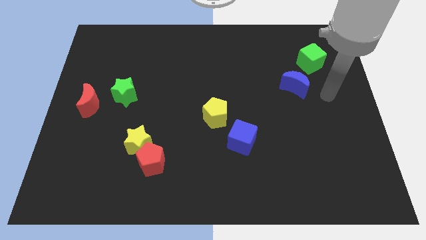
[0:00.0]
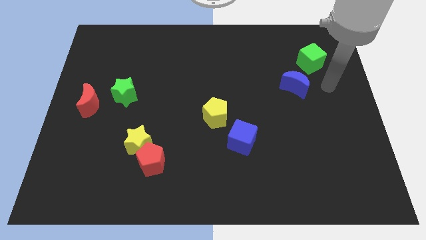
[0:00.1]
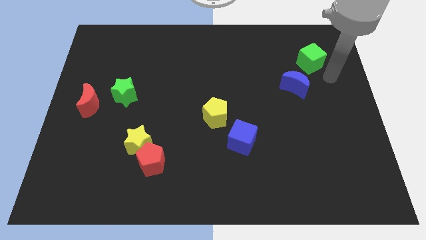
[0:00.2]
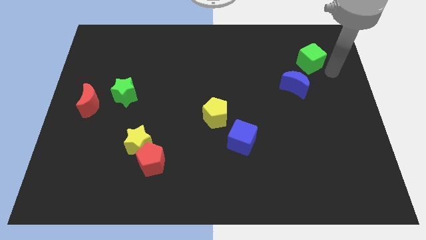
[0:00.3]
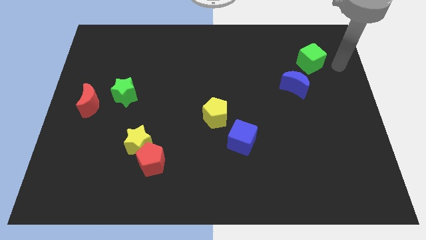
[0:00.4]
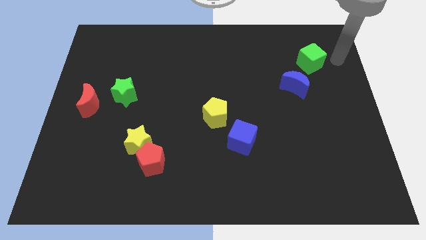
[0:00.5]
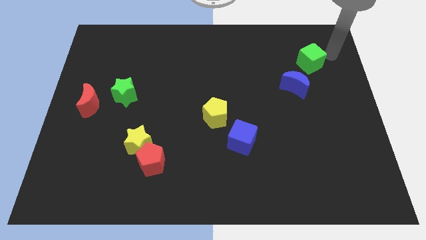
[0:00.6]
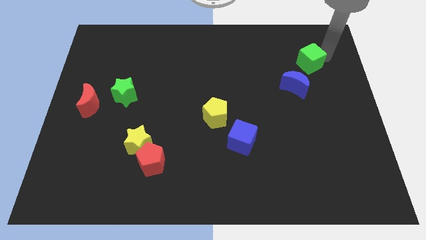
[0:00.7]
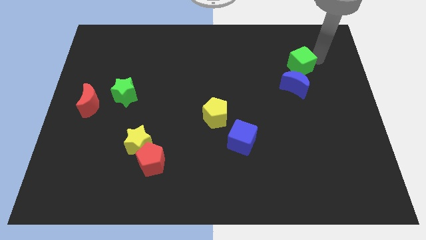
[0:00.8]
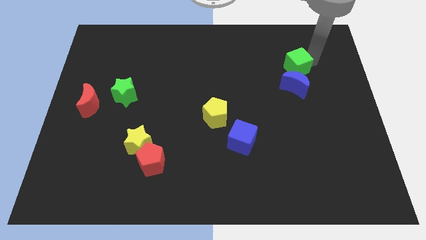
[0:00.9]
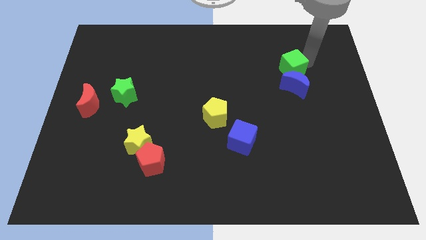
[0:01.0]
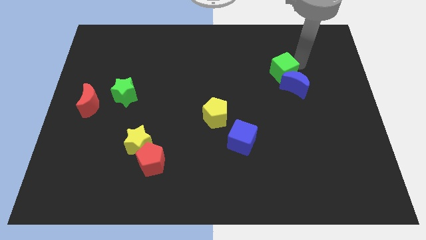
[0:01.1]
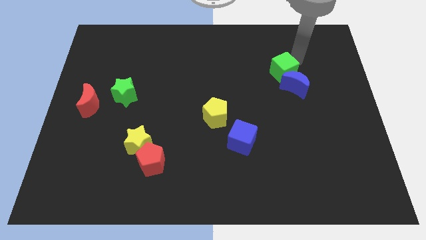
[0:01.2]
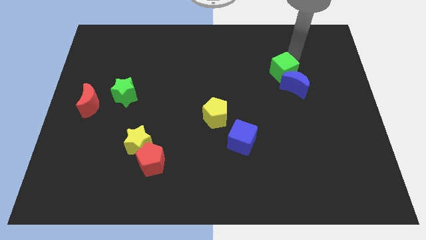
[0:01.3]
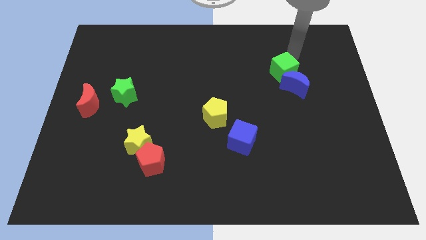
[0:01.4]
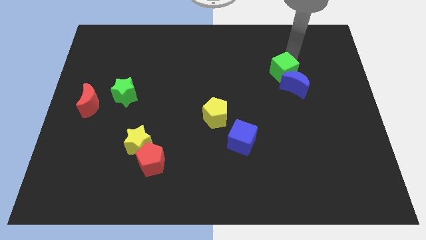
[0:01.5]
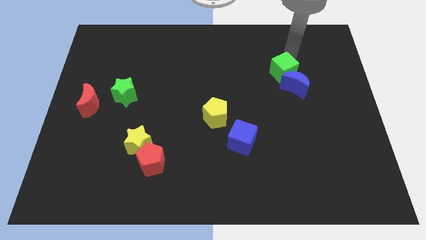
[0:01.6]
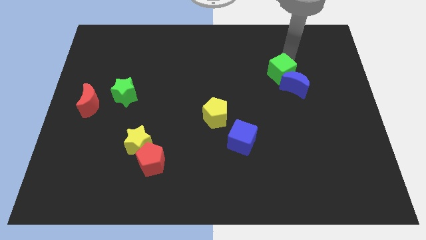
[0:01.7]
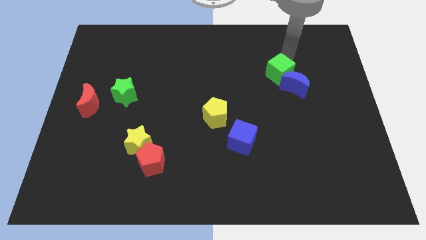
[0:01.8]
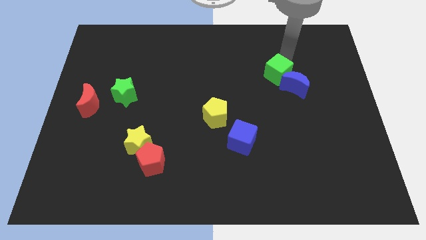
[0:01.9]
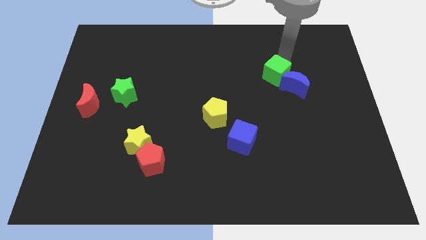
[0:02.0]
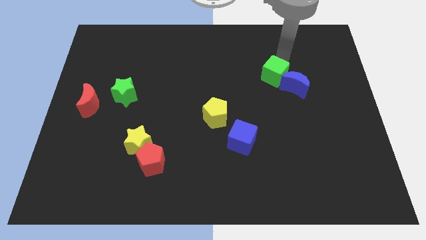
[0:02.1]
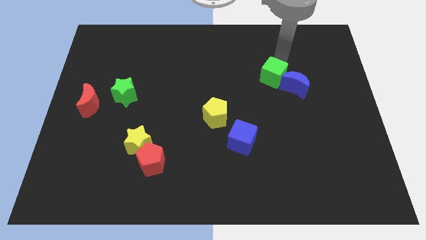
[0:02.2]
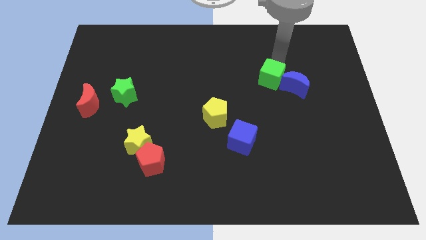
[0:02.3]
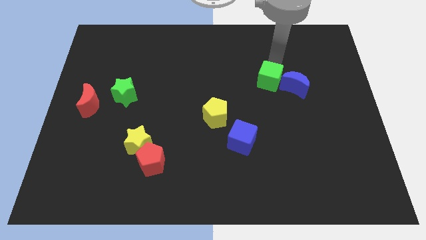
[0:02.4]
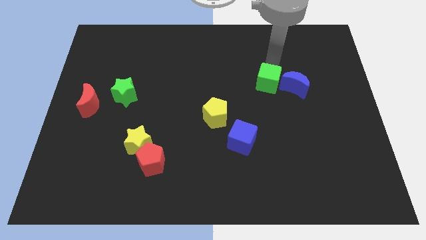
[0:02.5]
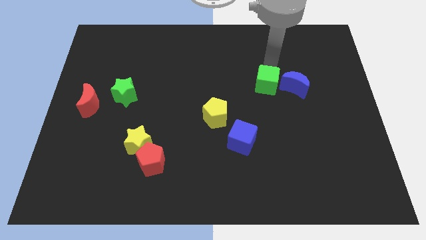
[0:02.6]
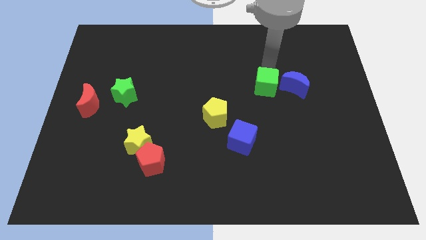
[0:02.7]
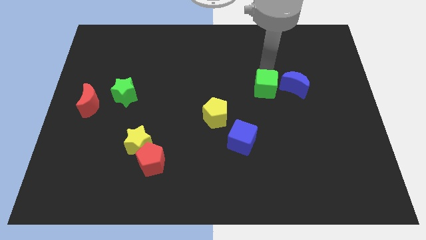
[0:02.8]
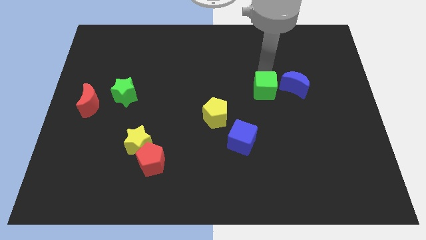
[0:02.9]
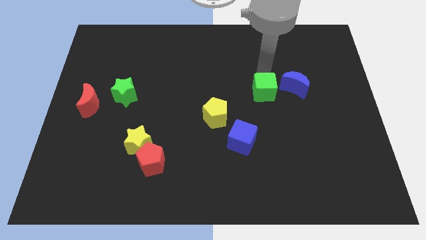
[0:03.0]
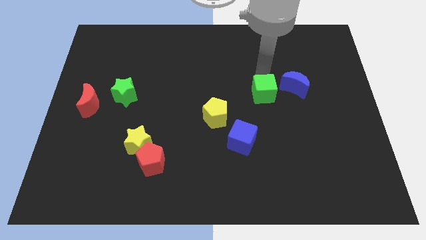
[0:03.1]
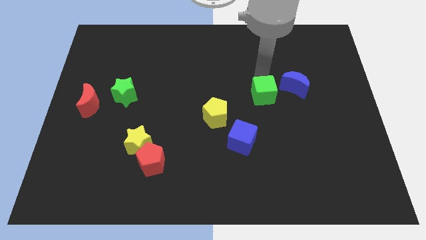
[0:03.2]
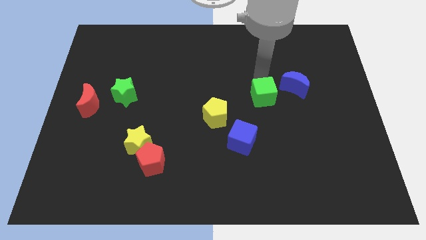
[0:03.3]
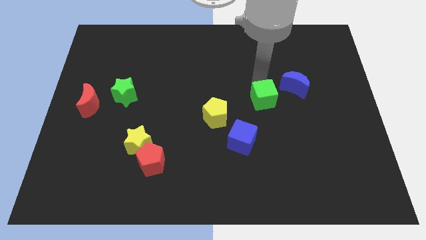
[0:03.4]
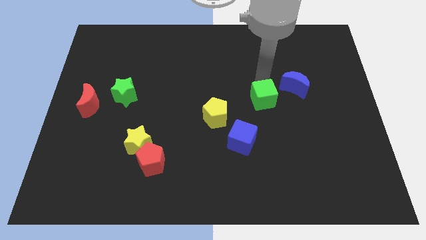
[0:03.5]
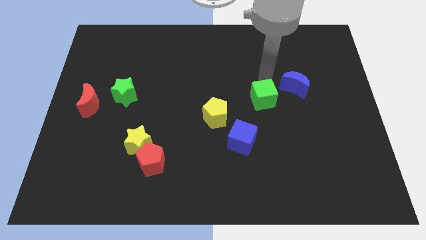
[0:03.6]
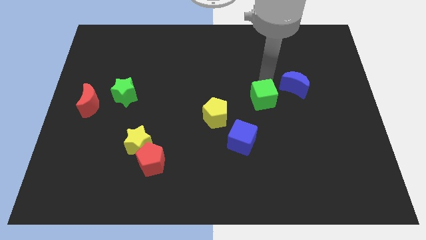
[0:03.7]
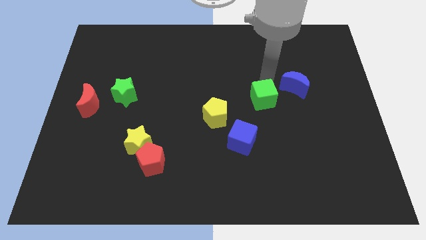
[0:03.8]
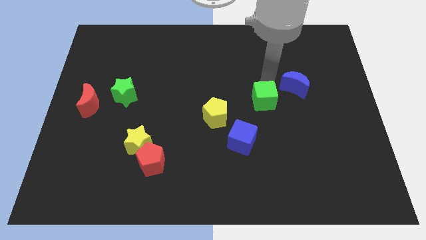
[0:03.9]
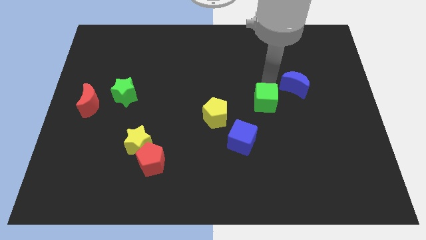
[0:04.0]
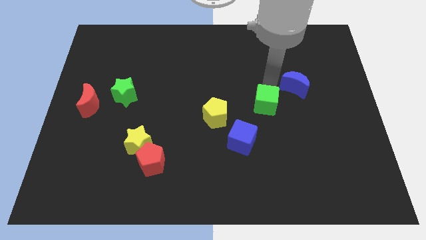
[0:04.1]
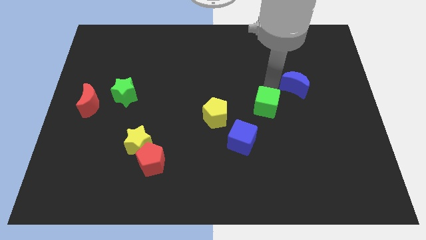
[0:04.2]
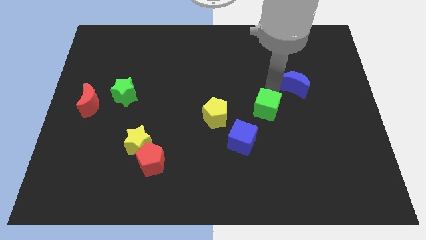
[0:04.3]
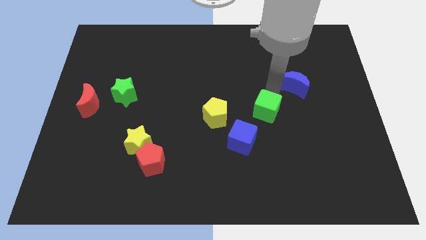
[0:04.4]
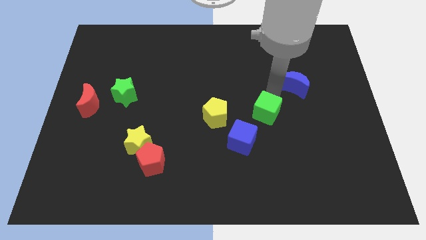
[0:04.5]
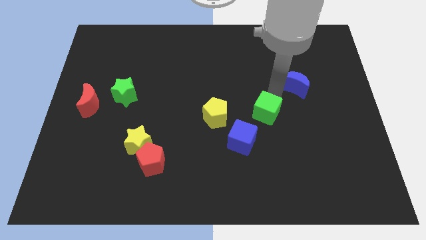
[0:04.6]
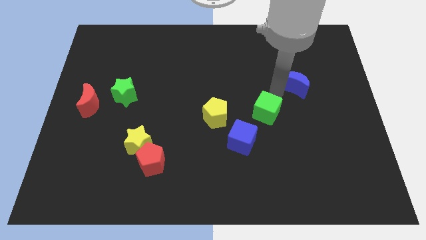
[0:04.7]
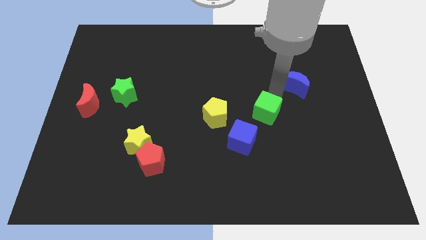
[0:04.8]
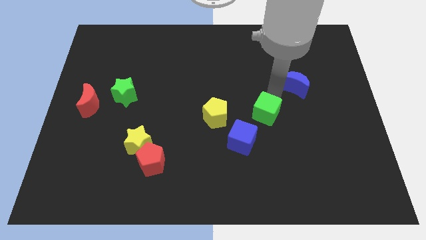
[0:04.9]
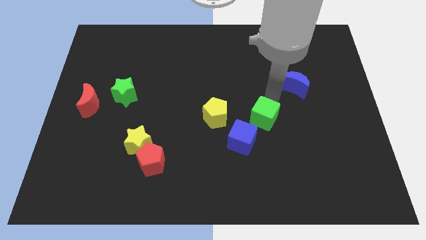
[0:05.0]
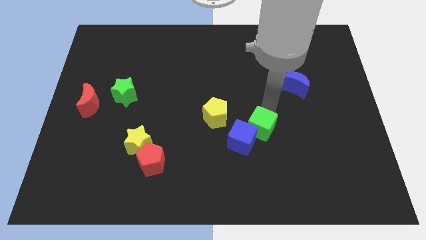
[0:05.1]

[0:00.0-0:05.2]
put the green cube towards the blue cube

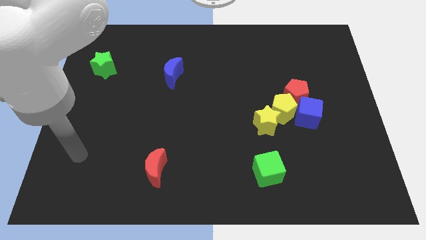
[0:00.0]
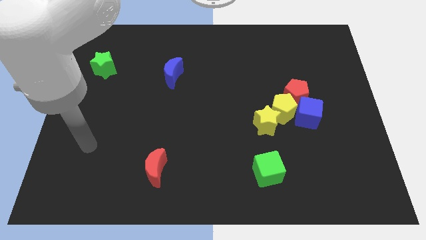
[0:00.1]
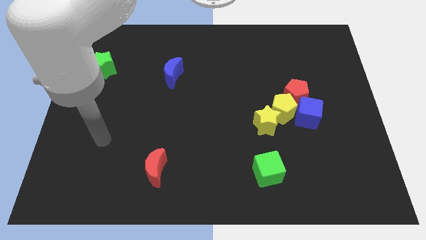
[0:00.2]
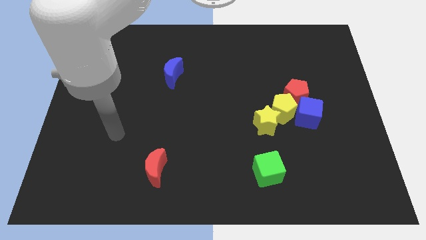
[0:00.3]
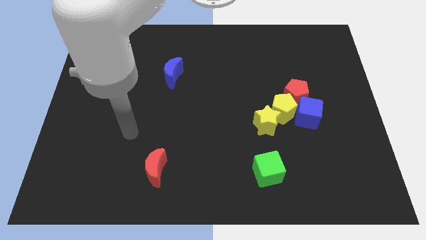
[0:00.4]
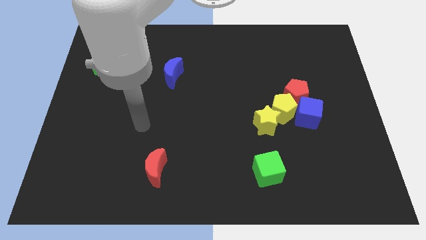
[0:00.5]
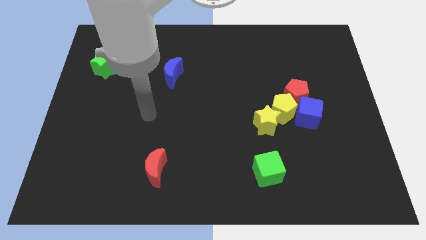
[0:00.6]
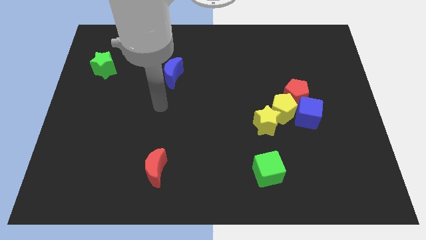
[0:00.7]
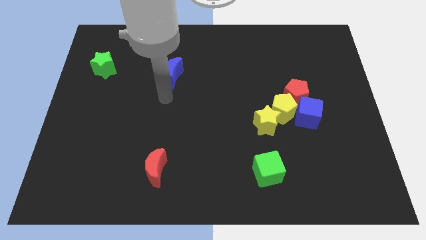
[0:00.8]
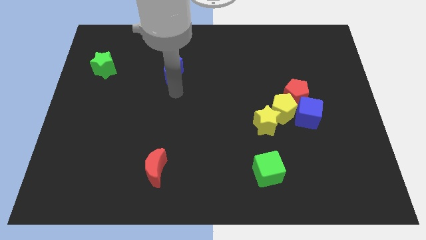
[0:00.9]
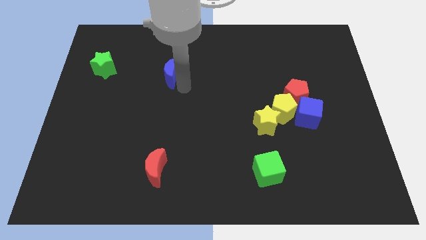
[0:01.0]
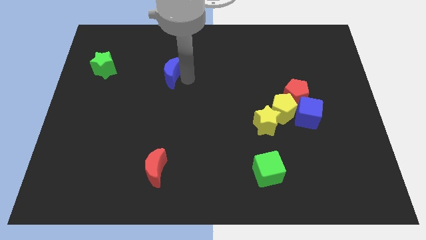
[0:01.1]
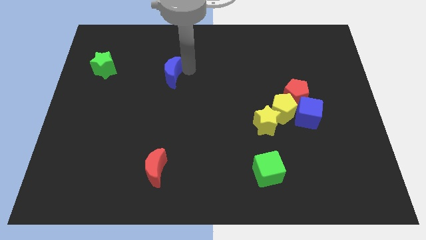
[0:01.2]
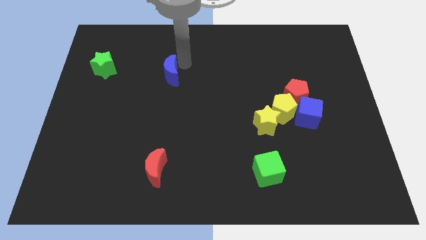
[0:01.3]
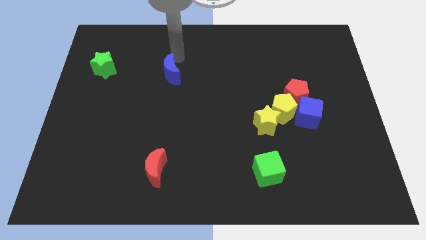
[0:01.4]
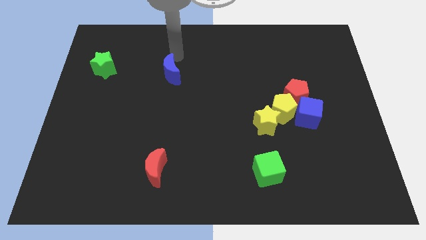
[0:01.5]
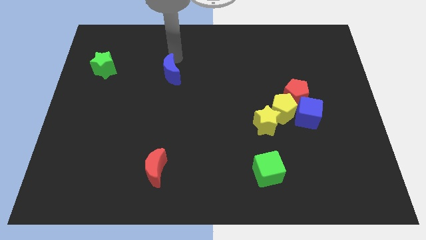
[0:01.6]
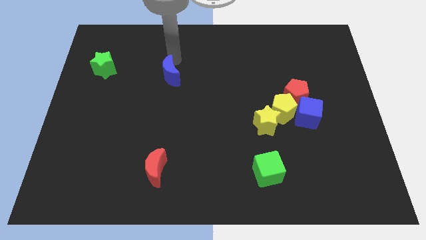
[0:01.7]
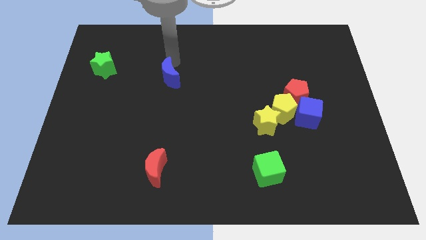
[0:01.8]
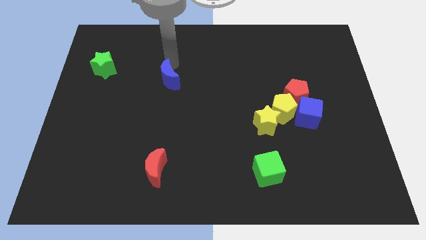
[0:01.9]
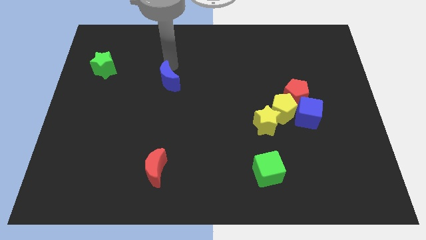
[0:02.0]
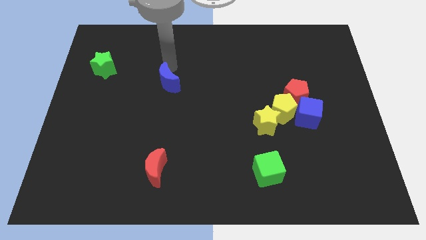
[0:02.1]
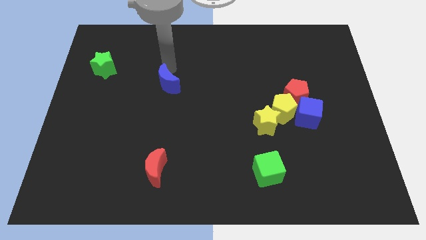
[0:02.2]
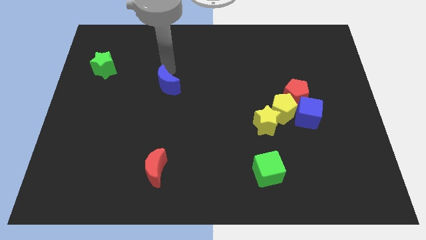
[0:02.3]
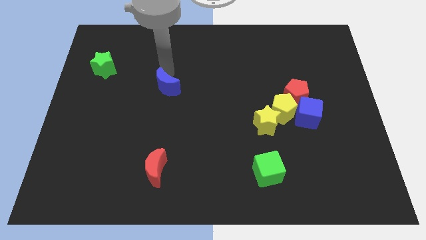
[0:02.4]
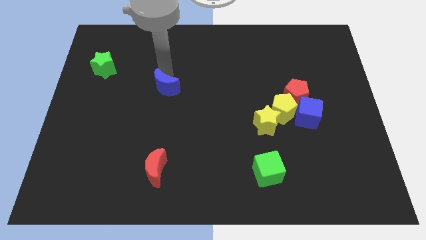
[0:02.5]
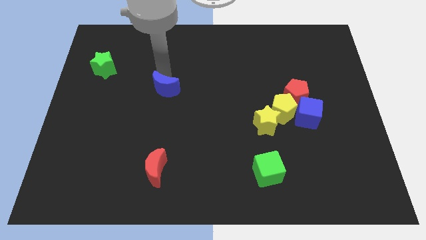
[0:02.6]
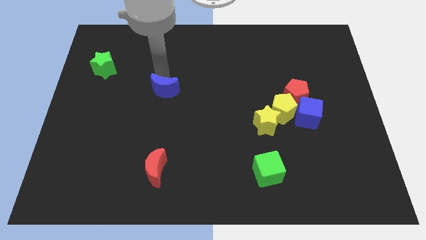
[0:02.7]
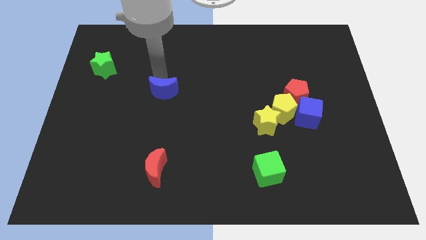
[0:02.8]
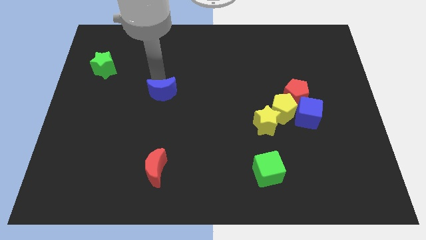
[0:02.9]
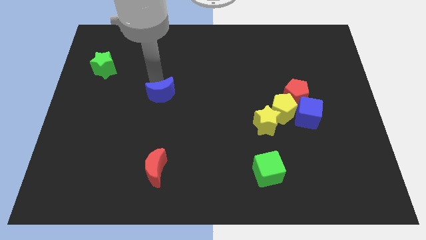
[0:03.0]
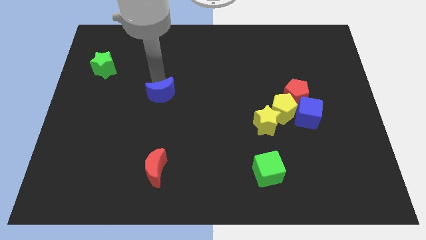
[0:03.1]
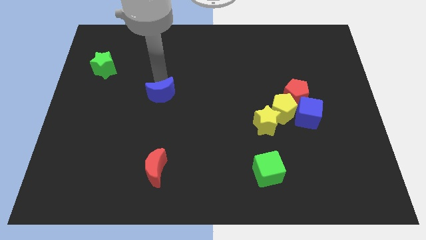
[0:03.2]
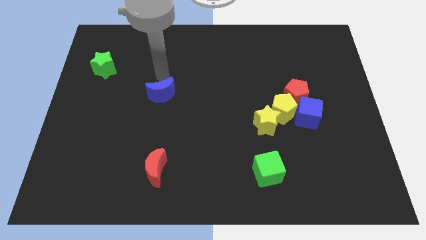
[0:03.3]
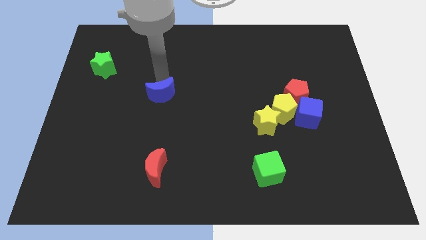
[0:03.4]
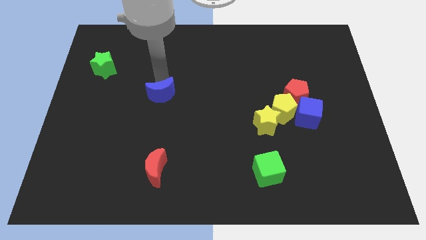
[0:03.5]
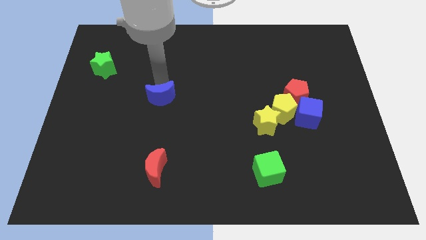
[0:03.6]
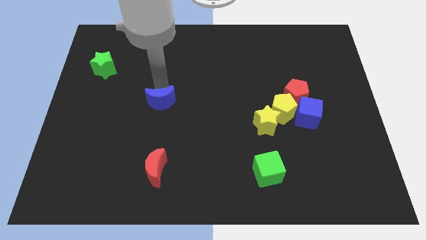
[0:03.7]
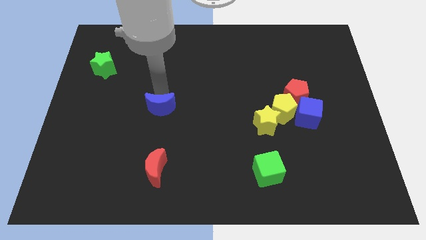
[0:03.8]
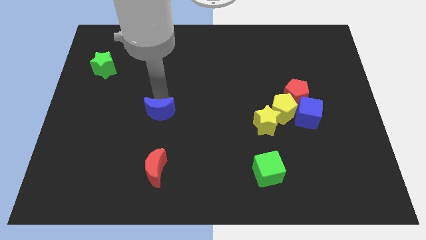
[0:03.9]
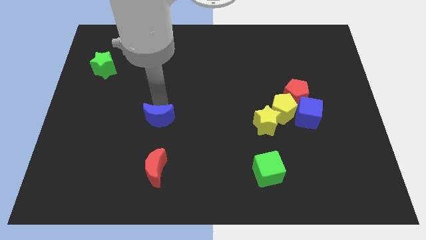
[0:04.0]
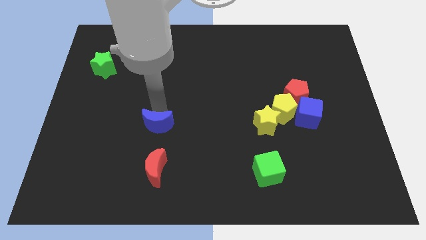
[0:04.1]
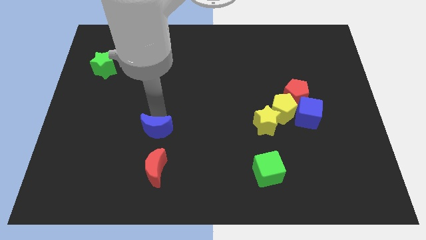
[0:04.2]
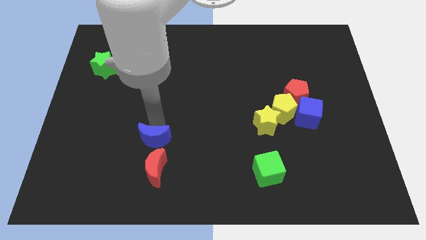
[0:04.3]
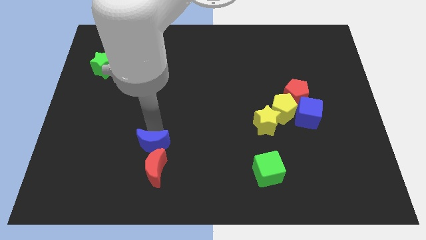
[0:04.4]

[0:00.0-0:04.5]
put the blue moon towards the red moon
